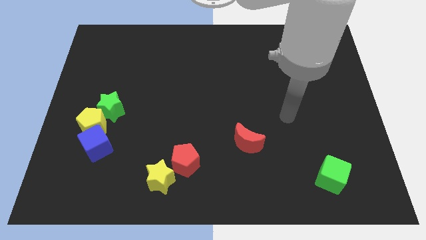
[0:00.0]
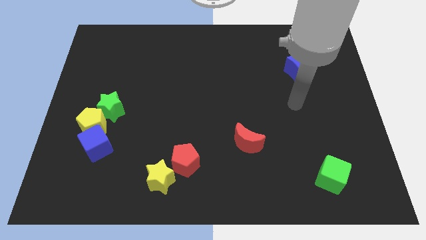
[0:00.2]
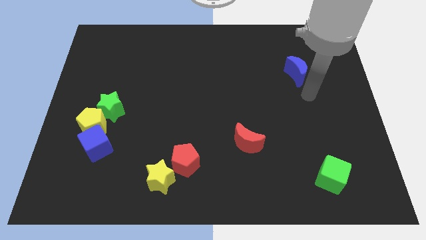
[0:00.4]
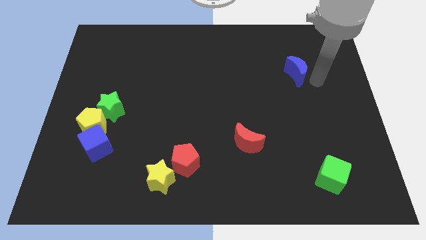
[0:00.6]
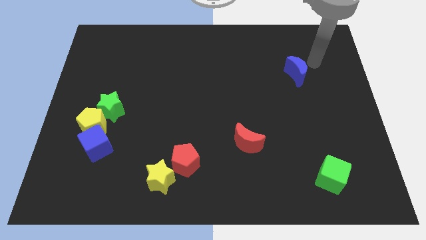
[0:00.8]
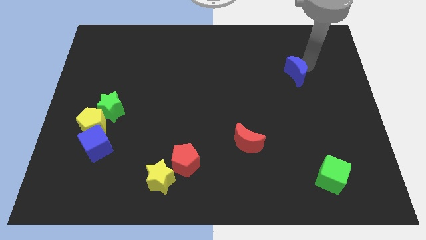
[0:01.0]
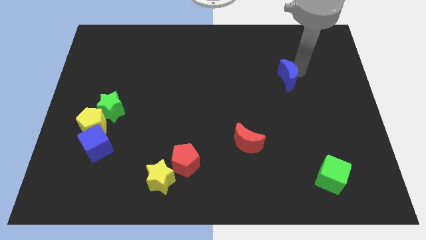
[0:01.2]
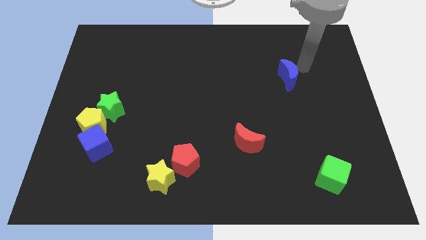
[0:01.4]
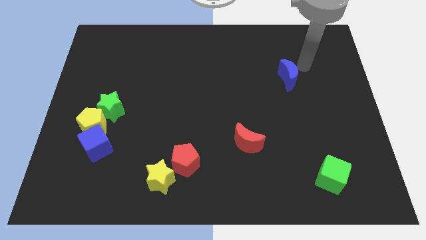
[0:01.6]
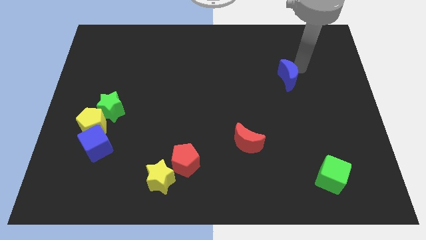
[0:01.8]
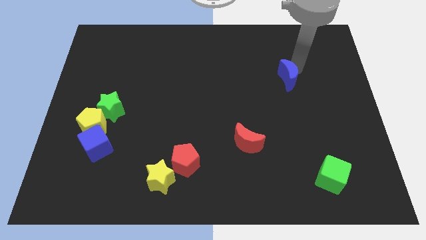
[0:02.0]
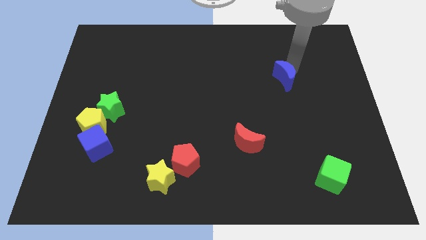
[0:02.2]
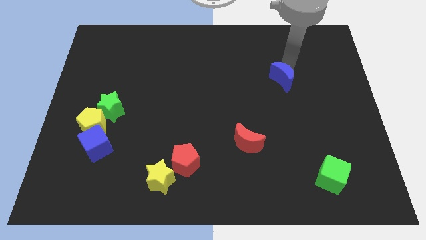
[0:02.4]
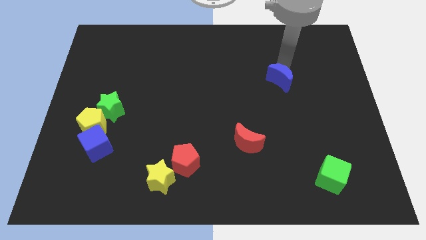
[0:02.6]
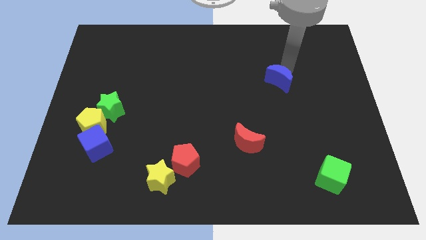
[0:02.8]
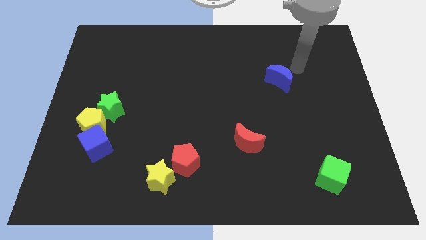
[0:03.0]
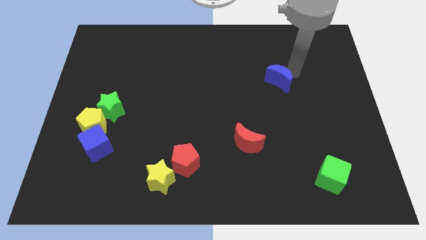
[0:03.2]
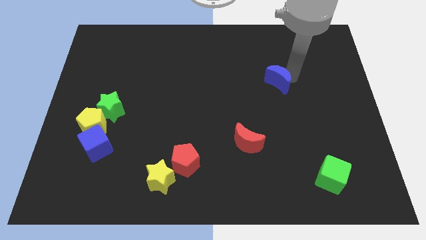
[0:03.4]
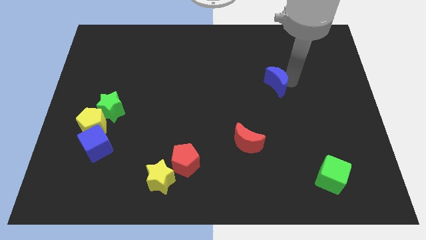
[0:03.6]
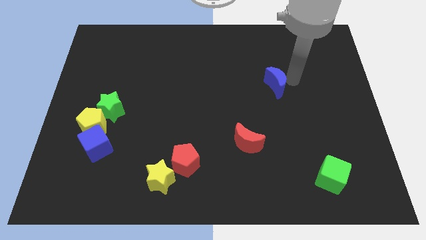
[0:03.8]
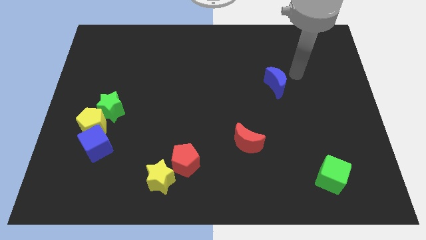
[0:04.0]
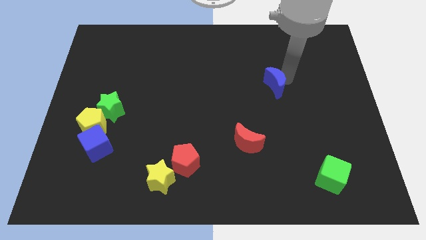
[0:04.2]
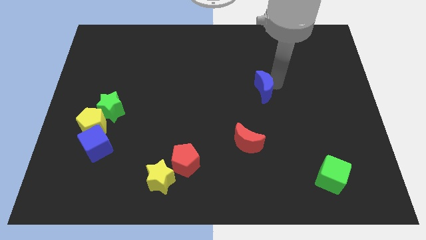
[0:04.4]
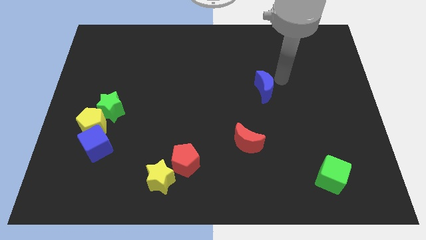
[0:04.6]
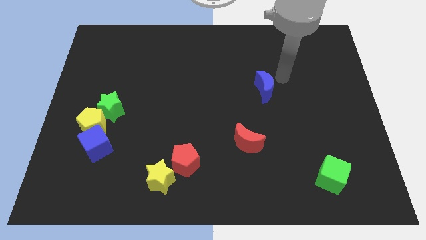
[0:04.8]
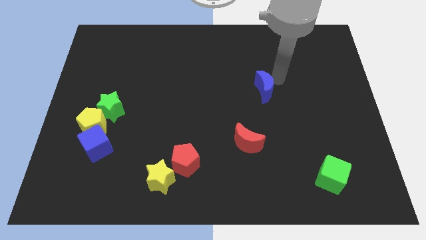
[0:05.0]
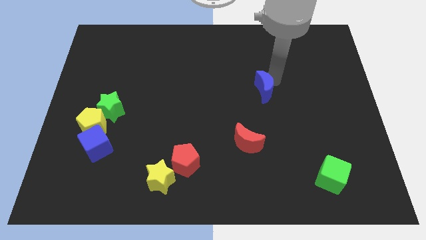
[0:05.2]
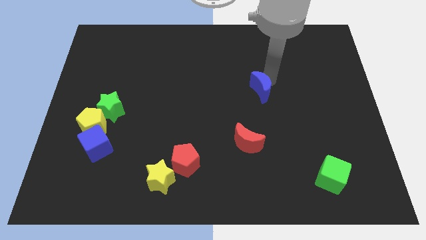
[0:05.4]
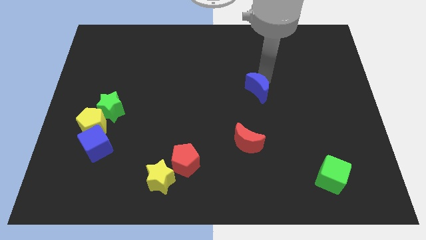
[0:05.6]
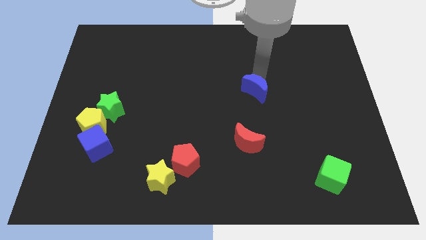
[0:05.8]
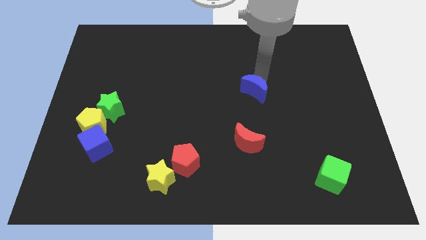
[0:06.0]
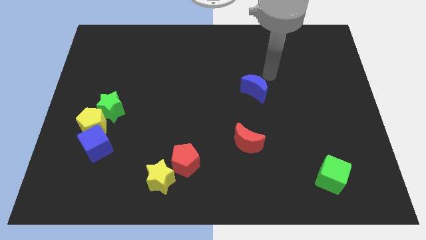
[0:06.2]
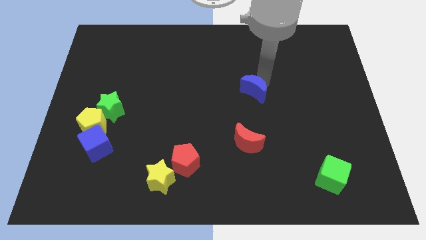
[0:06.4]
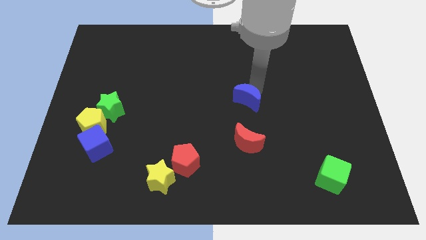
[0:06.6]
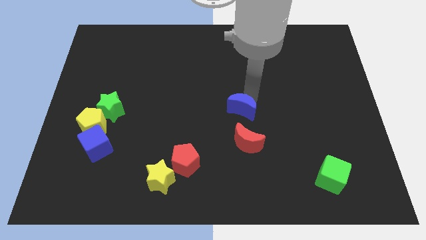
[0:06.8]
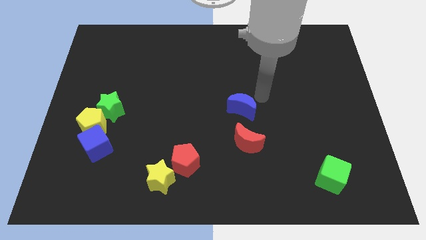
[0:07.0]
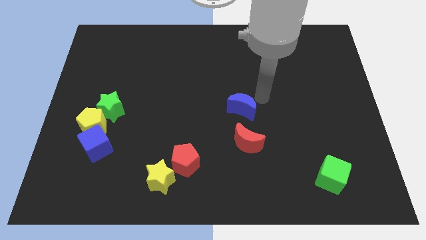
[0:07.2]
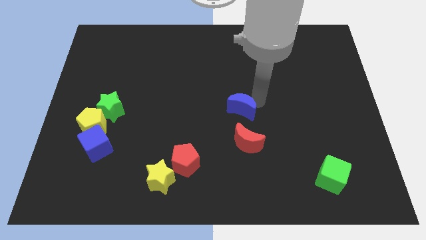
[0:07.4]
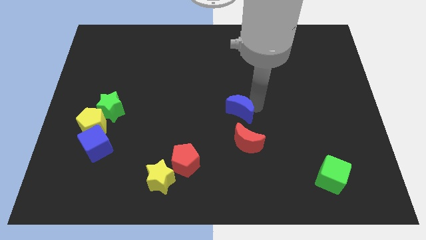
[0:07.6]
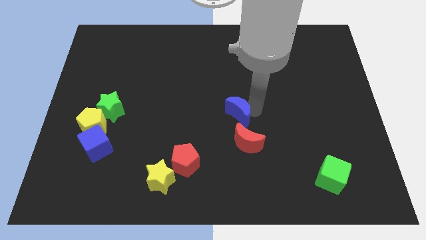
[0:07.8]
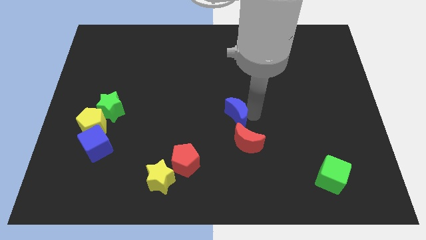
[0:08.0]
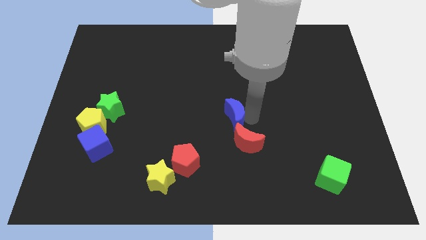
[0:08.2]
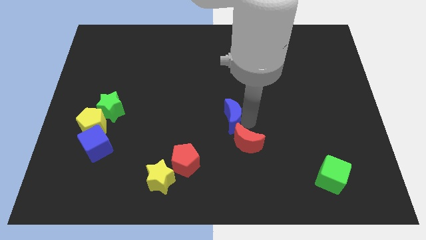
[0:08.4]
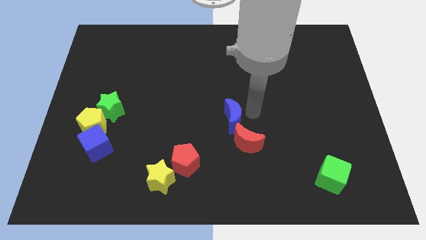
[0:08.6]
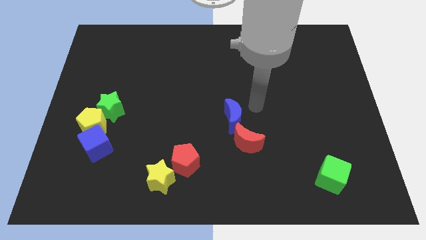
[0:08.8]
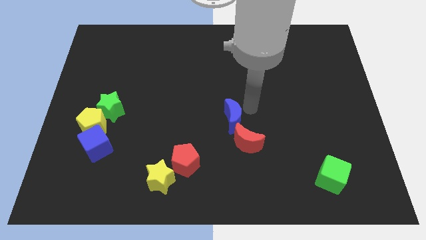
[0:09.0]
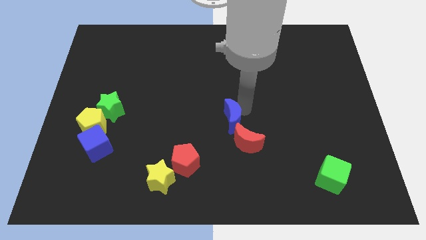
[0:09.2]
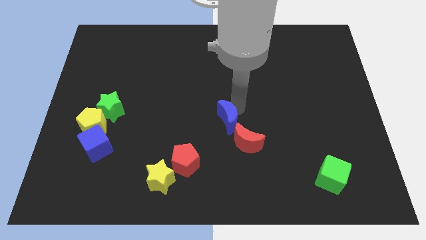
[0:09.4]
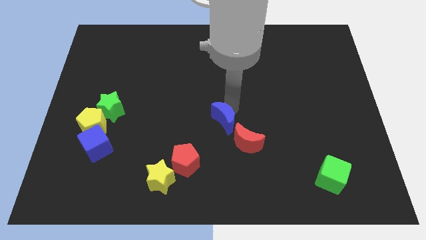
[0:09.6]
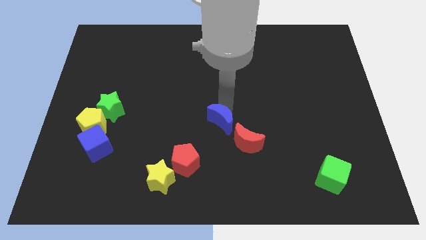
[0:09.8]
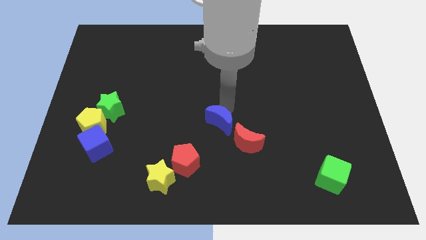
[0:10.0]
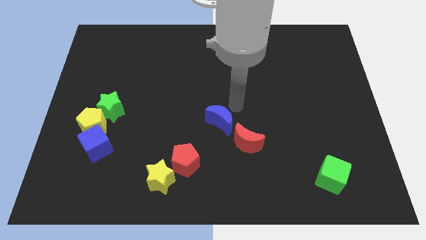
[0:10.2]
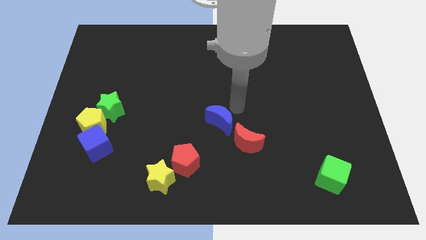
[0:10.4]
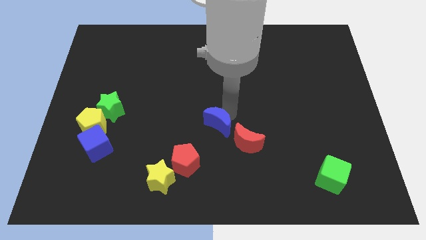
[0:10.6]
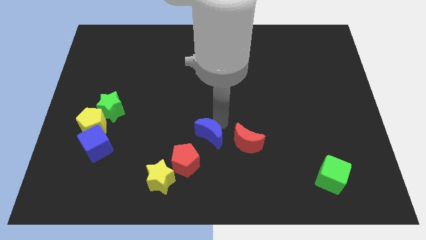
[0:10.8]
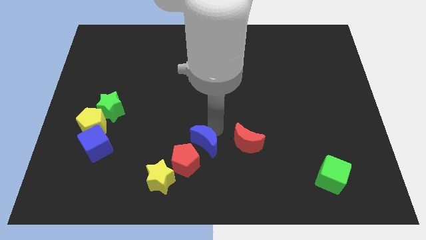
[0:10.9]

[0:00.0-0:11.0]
slide the blue moon diagonally up and to the right of the yellow star

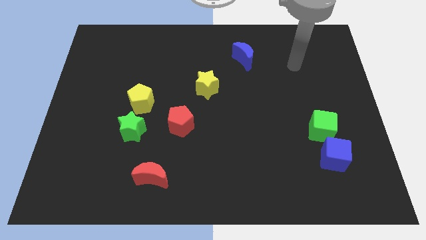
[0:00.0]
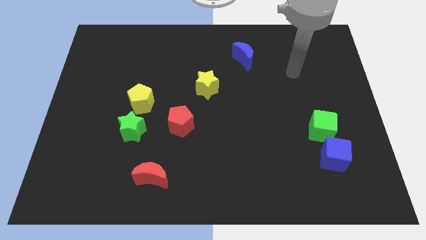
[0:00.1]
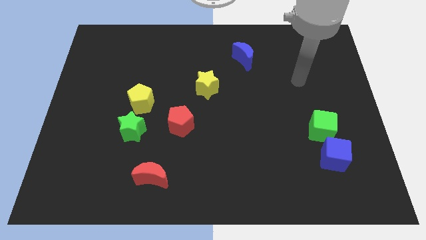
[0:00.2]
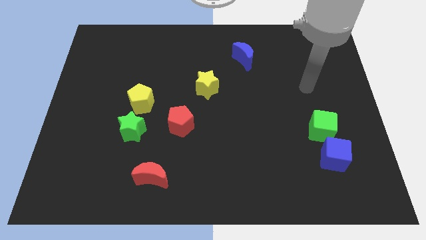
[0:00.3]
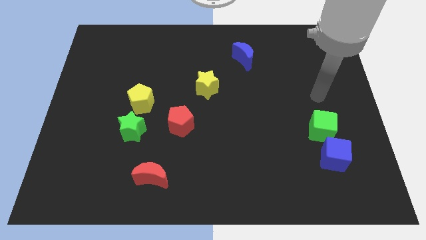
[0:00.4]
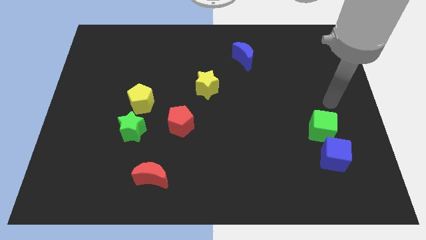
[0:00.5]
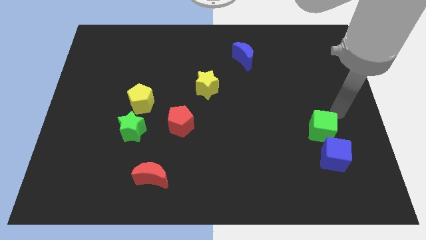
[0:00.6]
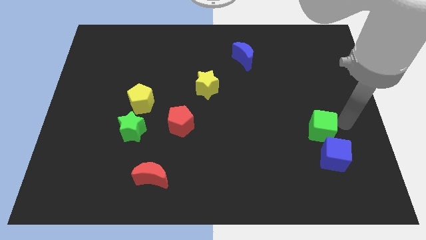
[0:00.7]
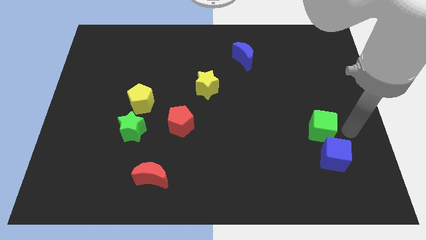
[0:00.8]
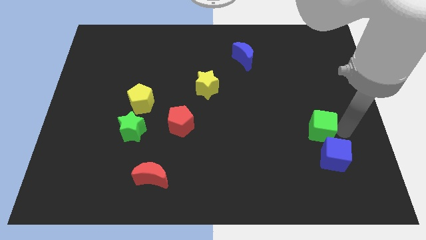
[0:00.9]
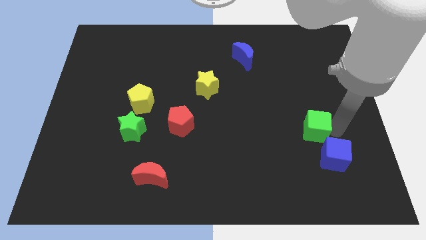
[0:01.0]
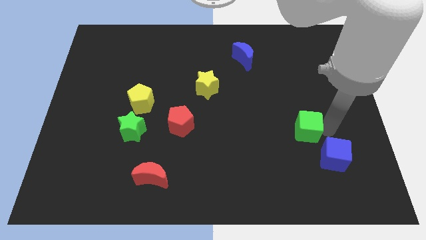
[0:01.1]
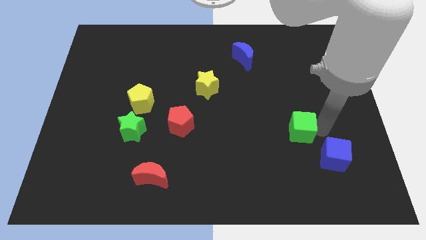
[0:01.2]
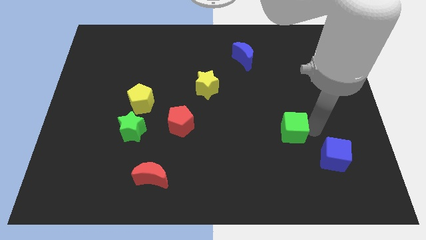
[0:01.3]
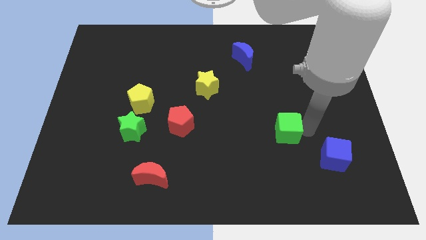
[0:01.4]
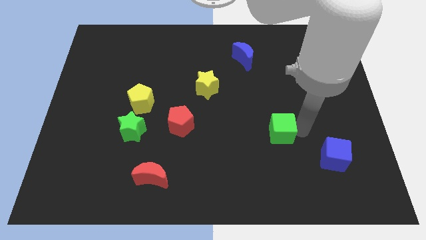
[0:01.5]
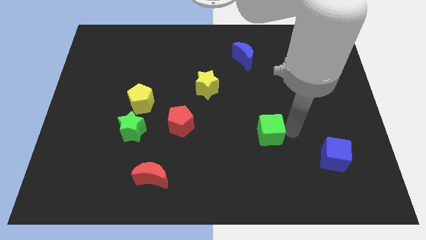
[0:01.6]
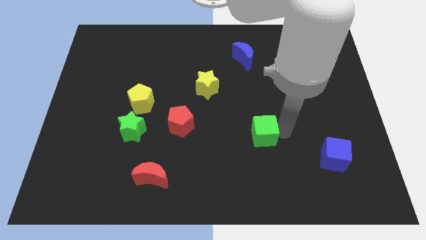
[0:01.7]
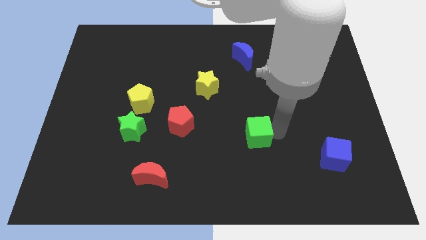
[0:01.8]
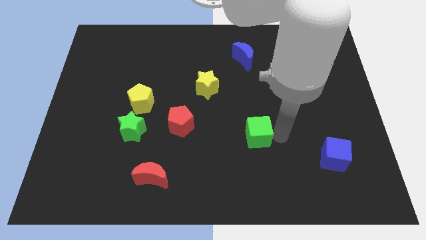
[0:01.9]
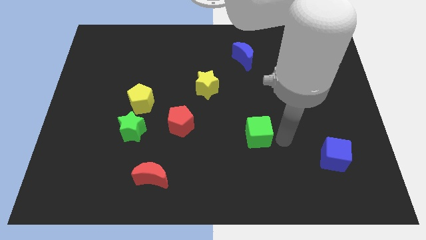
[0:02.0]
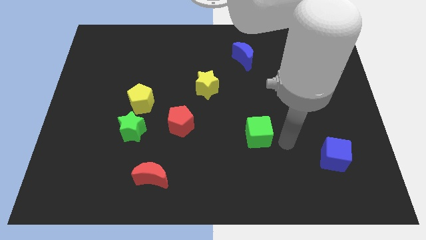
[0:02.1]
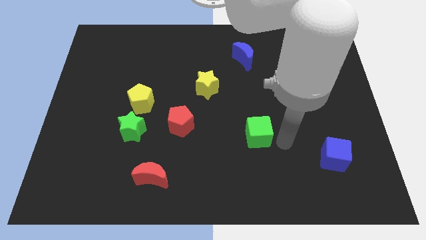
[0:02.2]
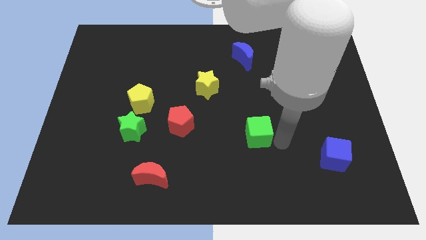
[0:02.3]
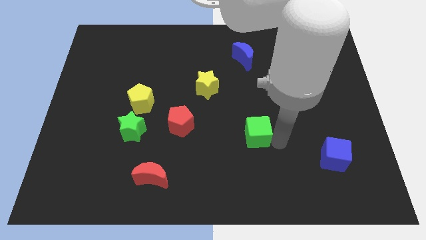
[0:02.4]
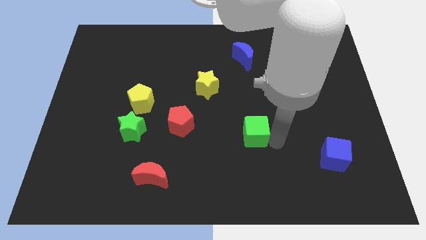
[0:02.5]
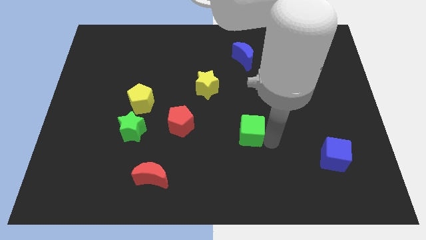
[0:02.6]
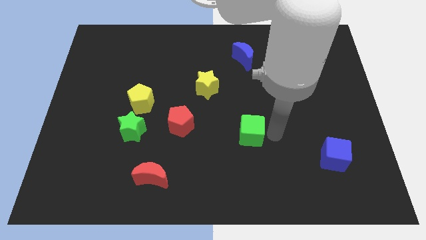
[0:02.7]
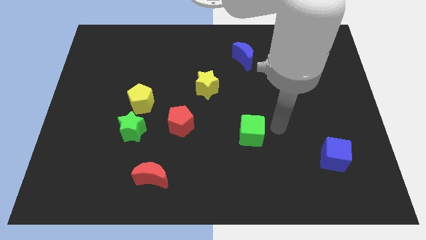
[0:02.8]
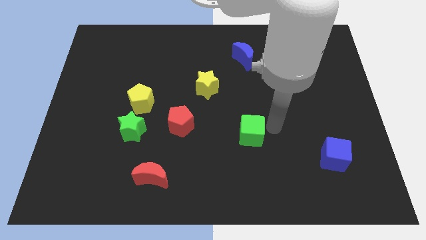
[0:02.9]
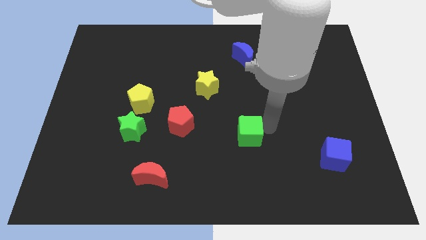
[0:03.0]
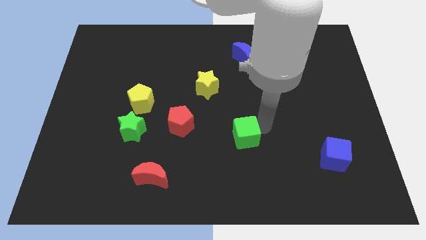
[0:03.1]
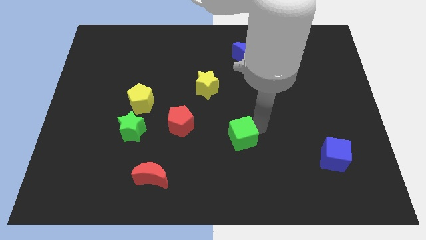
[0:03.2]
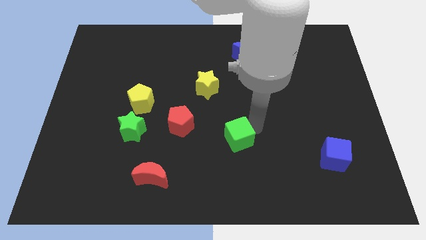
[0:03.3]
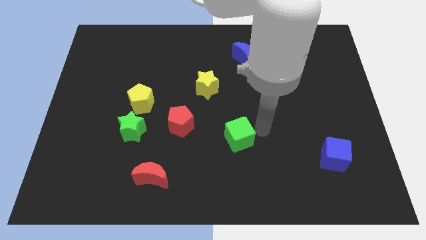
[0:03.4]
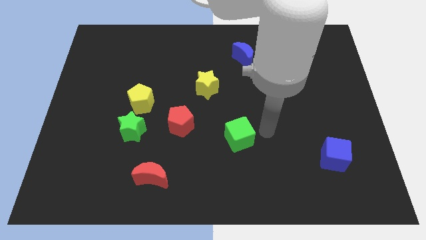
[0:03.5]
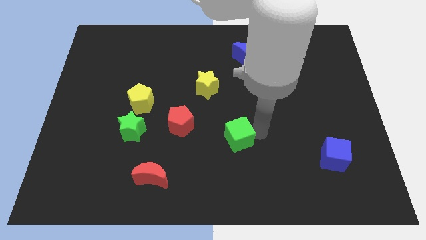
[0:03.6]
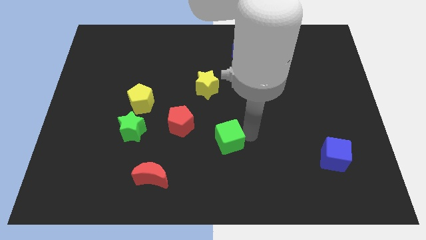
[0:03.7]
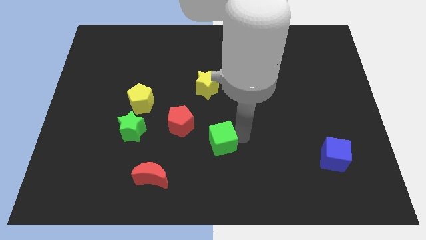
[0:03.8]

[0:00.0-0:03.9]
push the green cube diagonally down and to the right of the red pentagon
